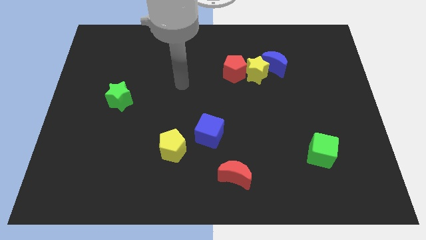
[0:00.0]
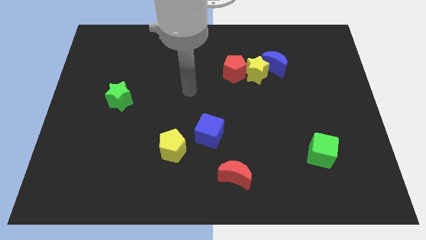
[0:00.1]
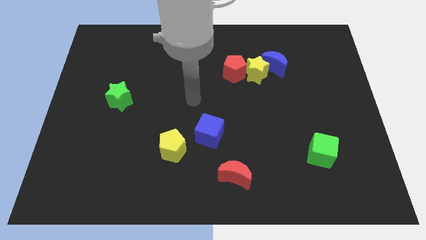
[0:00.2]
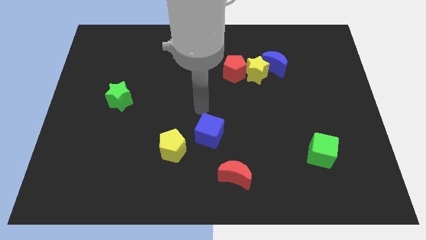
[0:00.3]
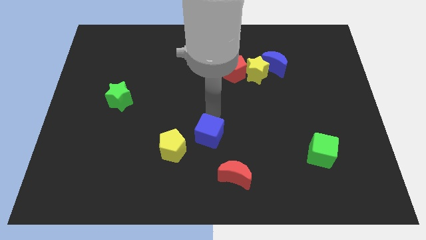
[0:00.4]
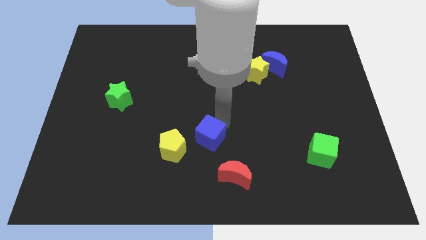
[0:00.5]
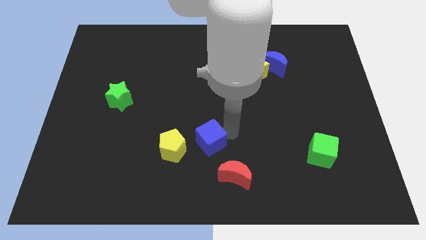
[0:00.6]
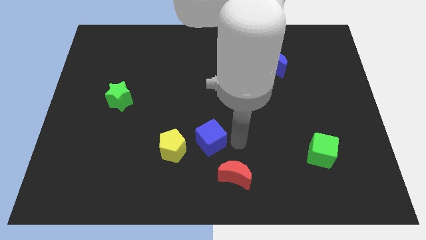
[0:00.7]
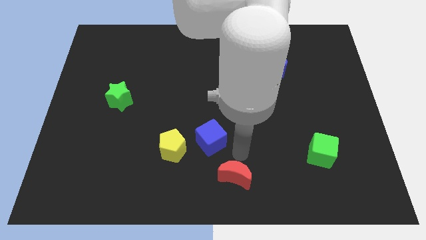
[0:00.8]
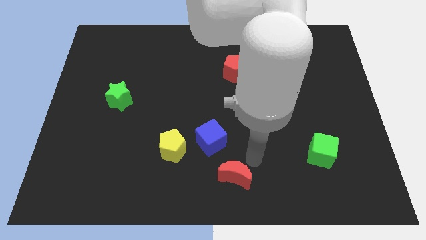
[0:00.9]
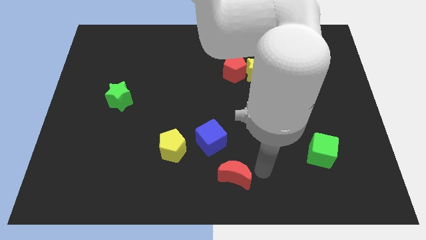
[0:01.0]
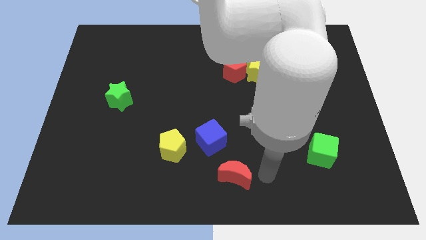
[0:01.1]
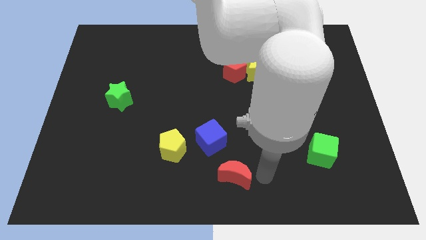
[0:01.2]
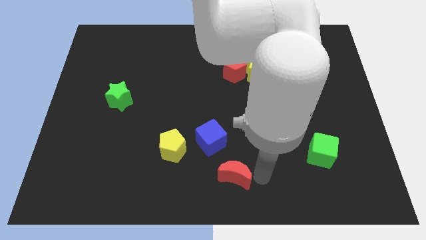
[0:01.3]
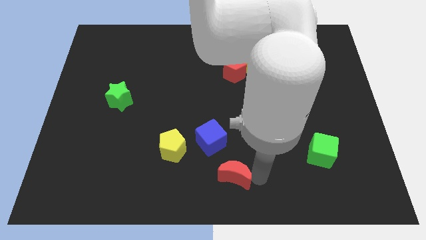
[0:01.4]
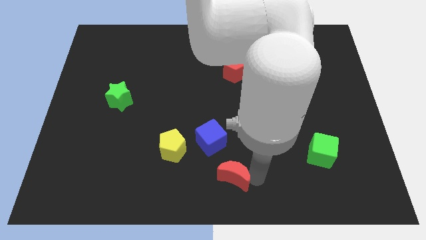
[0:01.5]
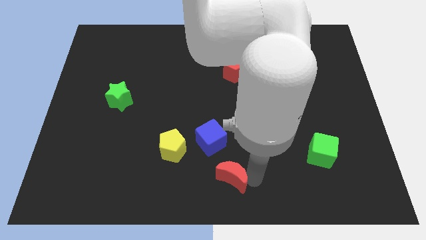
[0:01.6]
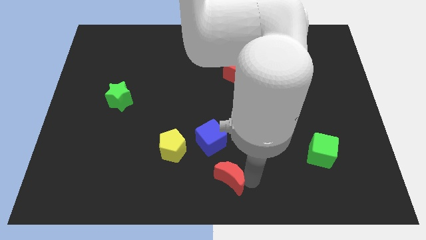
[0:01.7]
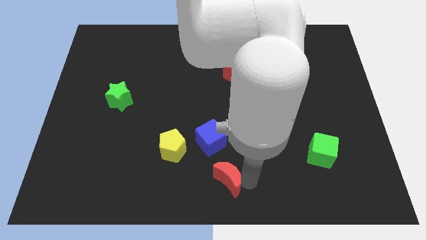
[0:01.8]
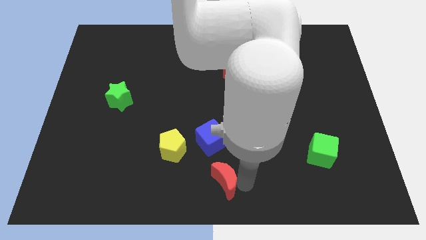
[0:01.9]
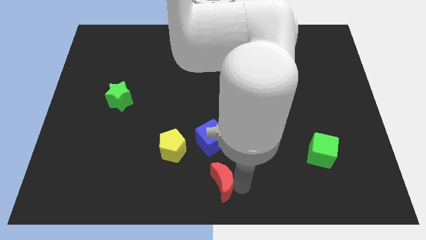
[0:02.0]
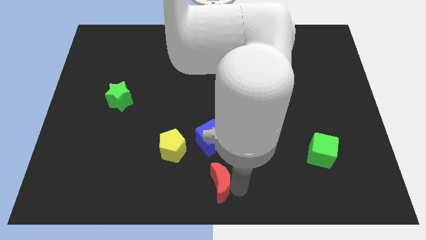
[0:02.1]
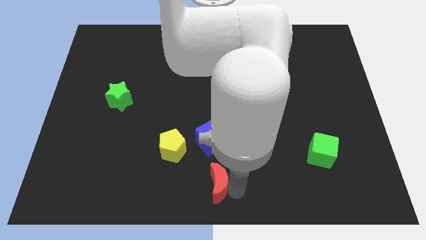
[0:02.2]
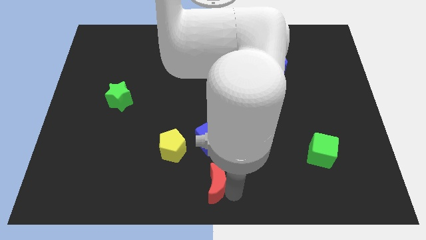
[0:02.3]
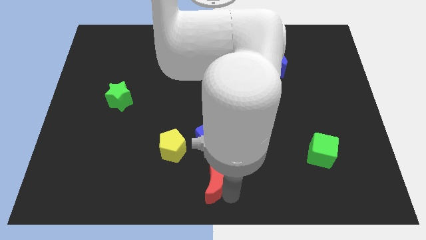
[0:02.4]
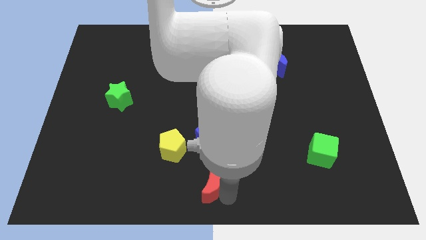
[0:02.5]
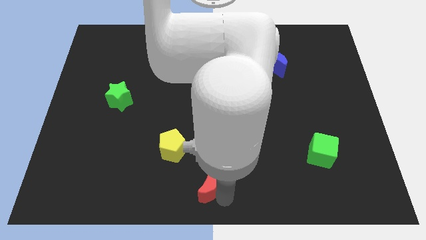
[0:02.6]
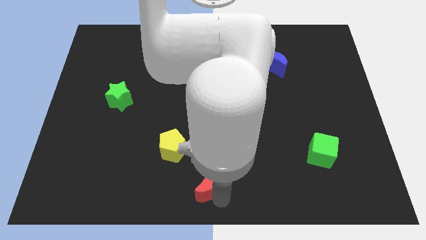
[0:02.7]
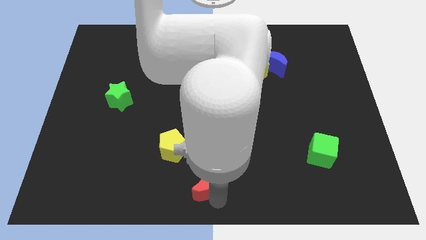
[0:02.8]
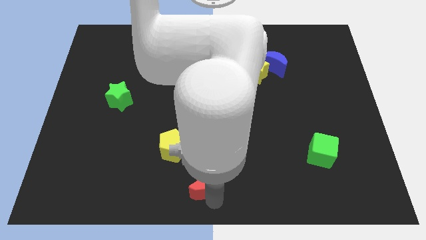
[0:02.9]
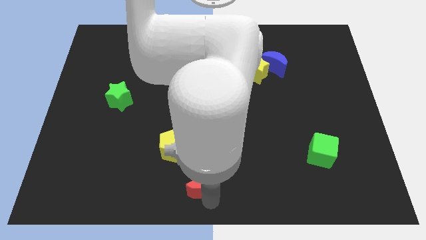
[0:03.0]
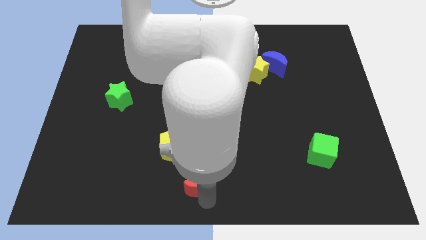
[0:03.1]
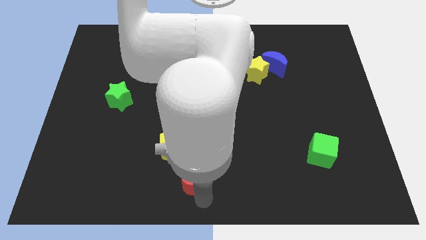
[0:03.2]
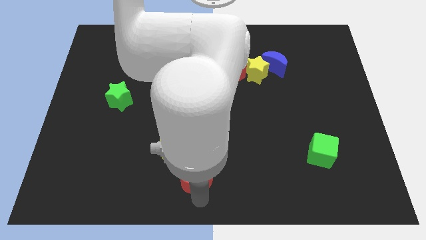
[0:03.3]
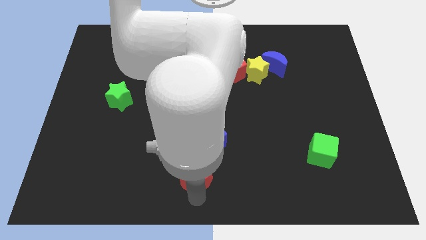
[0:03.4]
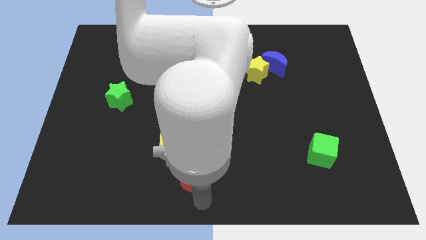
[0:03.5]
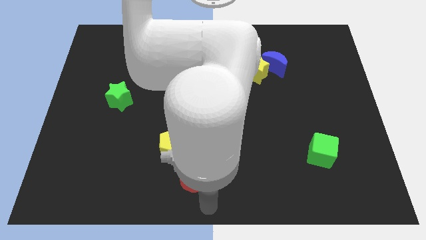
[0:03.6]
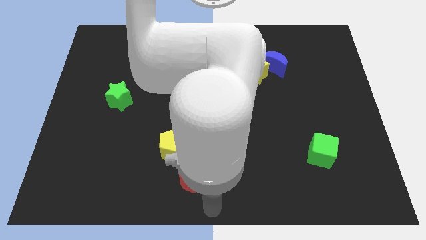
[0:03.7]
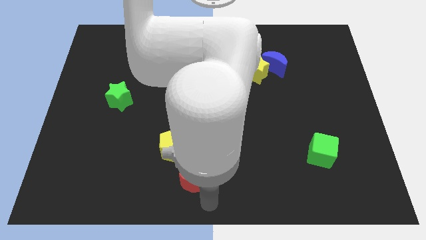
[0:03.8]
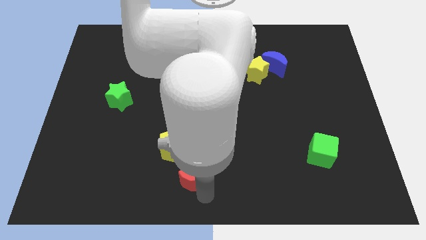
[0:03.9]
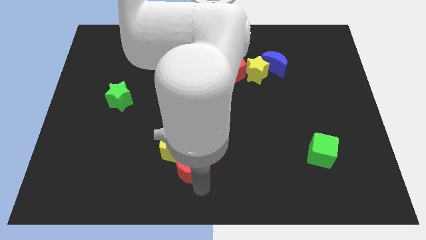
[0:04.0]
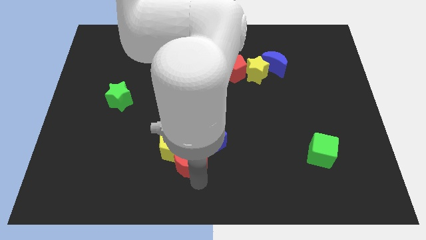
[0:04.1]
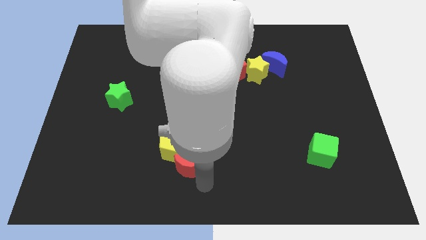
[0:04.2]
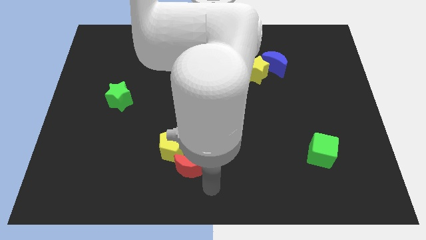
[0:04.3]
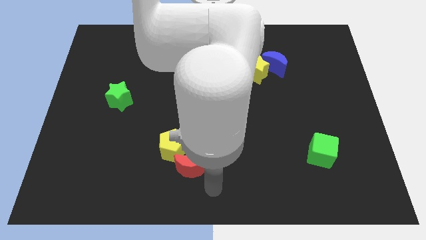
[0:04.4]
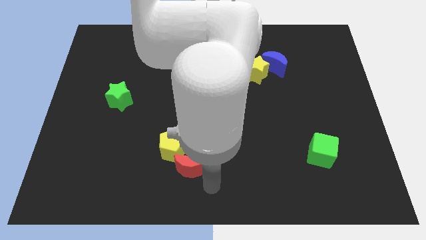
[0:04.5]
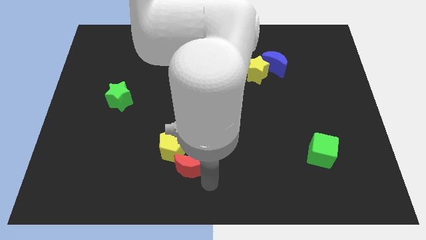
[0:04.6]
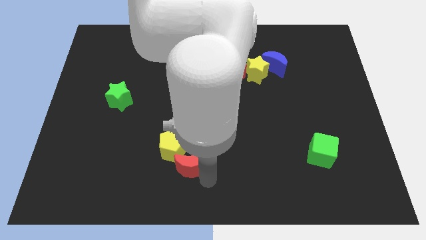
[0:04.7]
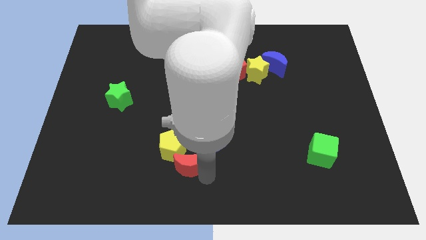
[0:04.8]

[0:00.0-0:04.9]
slide the red moon towards the yellow pentagon

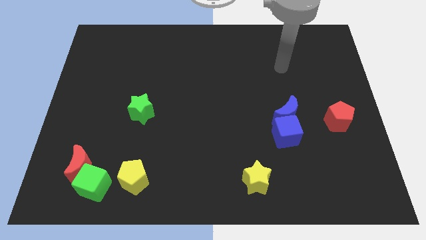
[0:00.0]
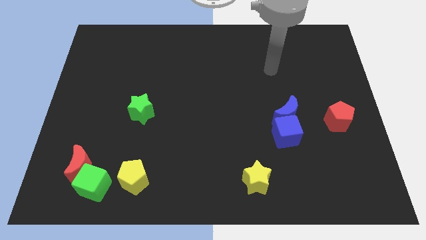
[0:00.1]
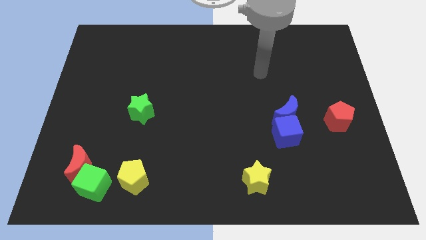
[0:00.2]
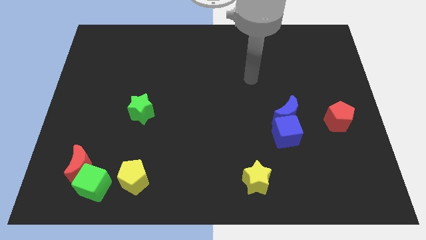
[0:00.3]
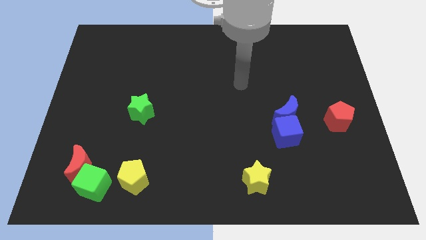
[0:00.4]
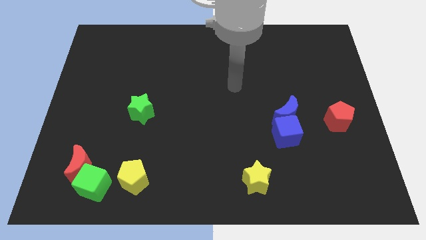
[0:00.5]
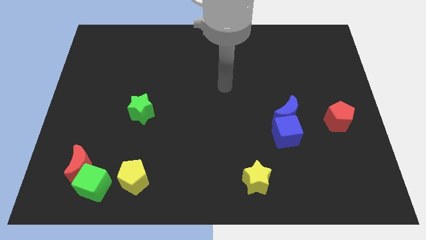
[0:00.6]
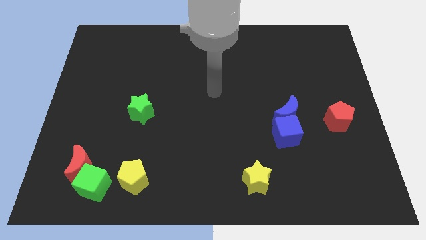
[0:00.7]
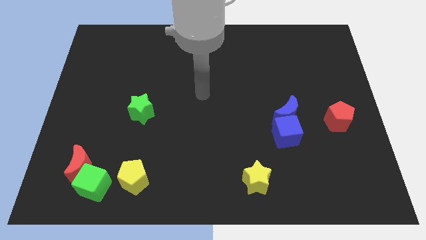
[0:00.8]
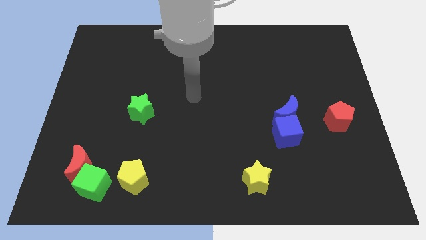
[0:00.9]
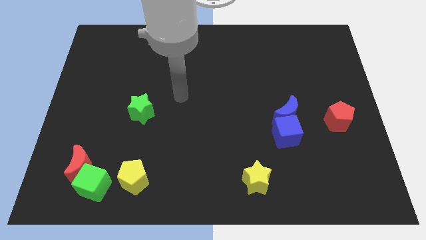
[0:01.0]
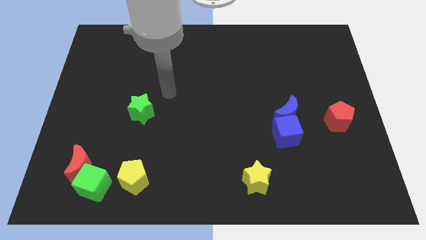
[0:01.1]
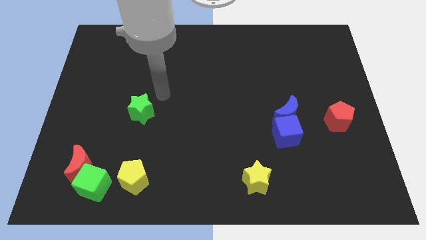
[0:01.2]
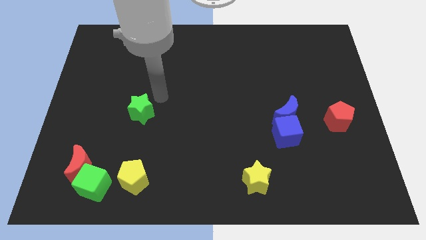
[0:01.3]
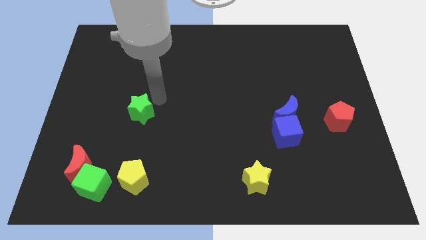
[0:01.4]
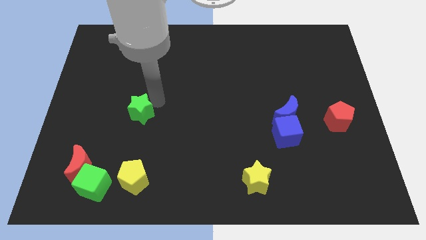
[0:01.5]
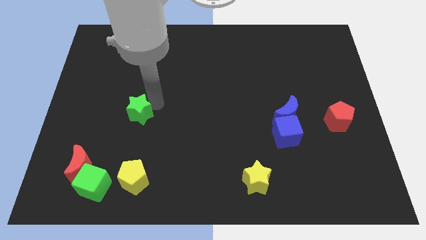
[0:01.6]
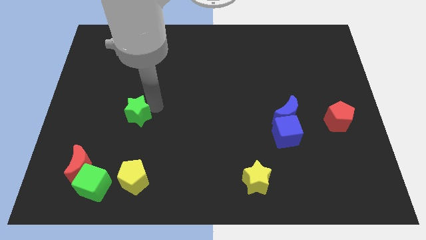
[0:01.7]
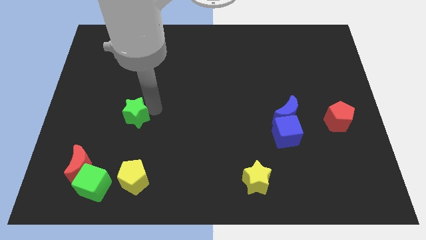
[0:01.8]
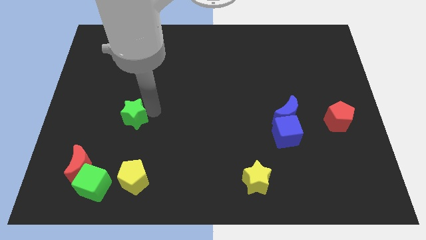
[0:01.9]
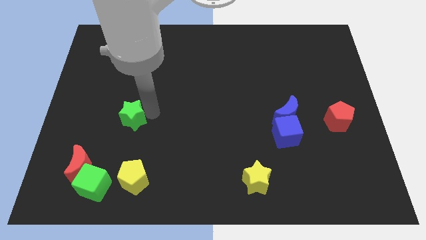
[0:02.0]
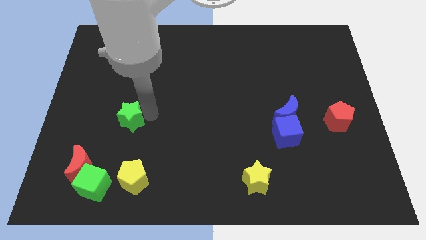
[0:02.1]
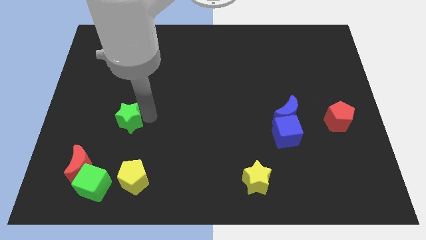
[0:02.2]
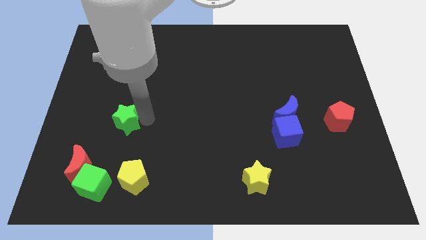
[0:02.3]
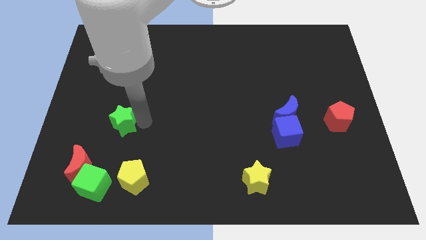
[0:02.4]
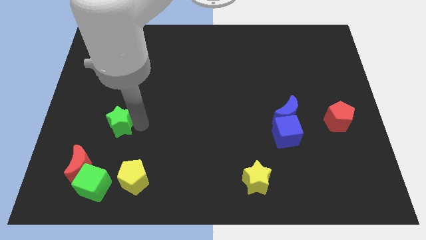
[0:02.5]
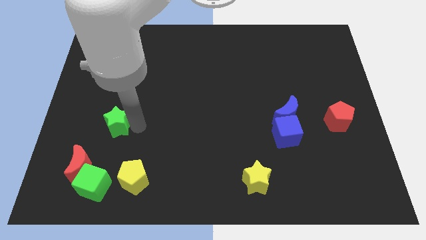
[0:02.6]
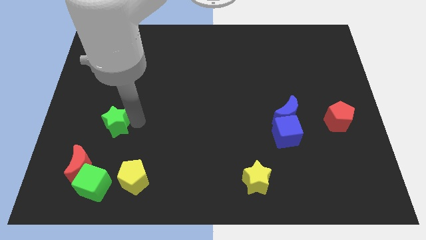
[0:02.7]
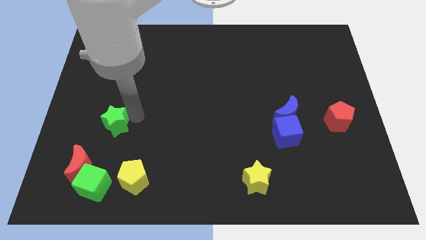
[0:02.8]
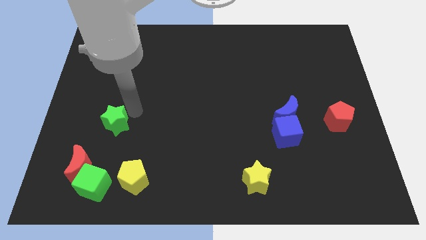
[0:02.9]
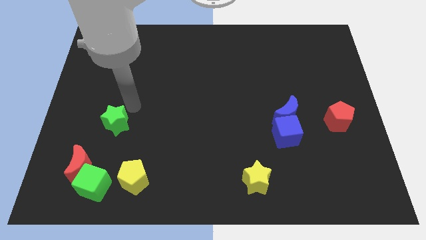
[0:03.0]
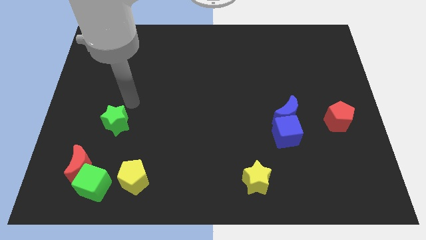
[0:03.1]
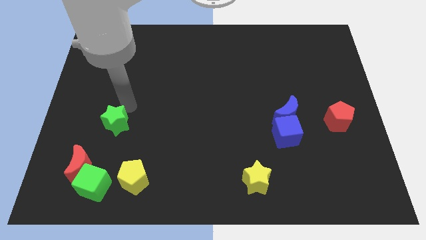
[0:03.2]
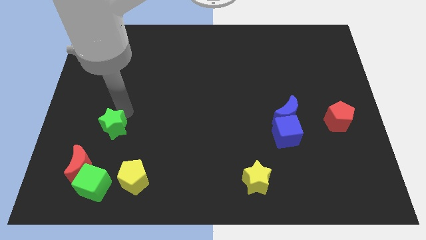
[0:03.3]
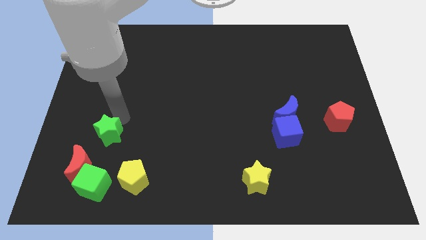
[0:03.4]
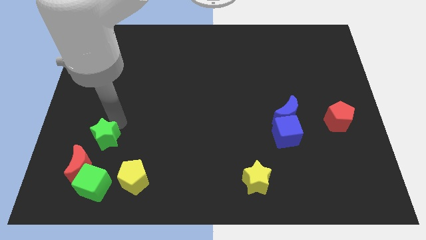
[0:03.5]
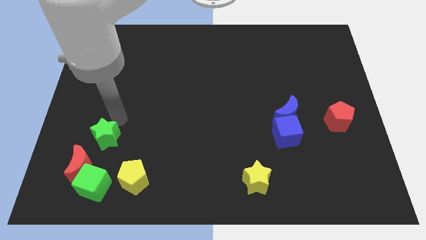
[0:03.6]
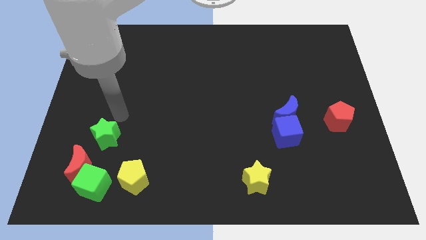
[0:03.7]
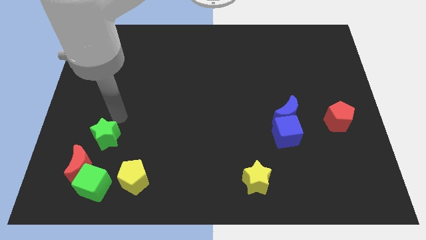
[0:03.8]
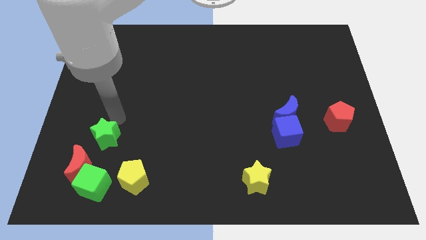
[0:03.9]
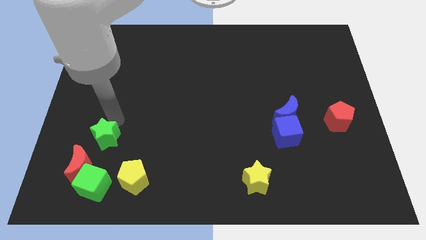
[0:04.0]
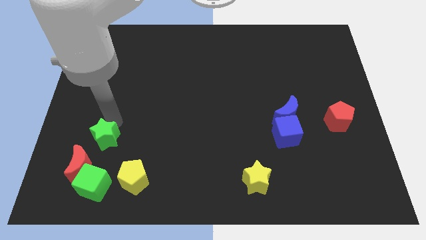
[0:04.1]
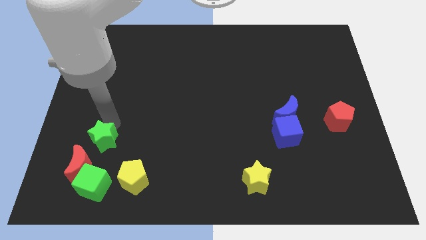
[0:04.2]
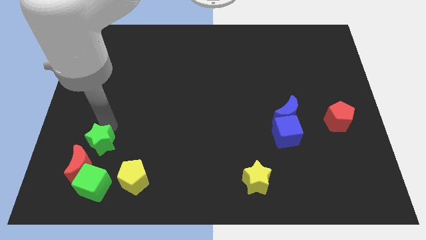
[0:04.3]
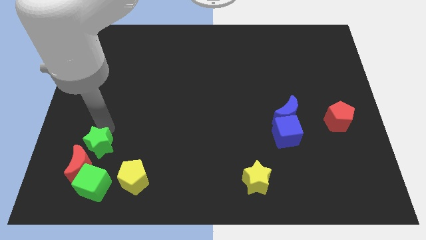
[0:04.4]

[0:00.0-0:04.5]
put the green star next to the red moon
